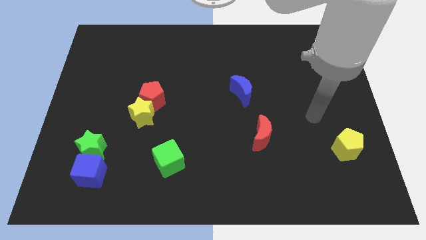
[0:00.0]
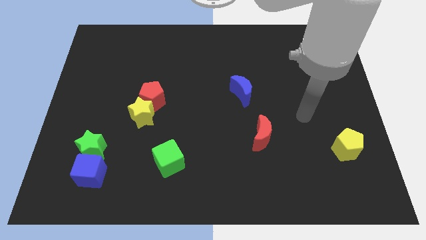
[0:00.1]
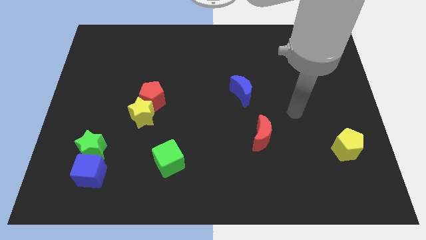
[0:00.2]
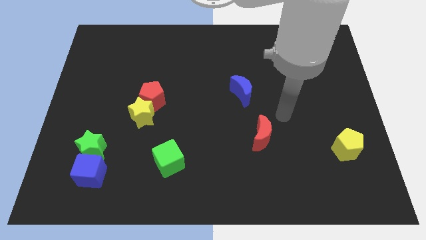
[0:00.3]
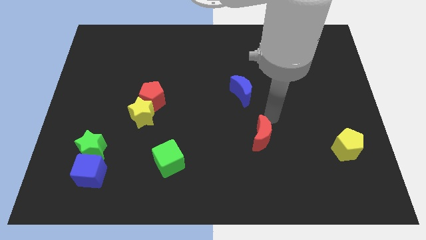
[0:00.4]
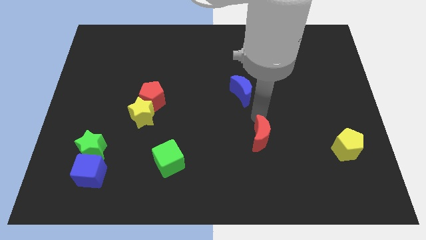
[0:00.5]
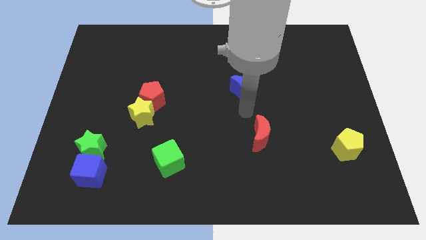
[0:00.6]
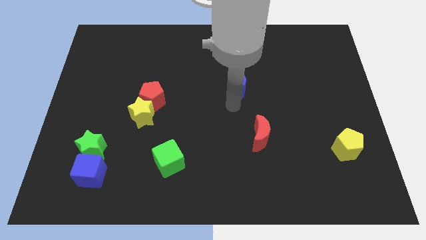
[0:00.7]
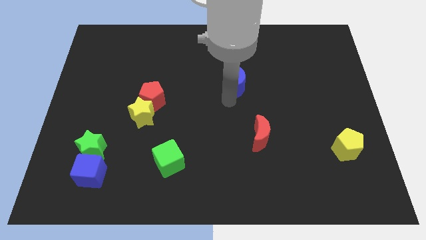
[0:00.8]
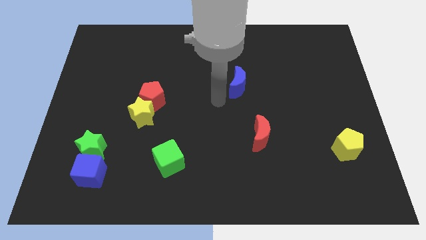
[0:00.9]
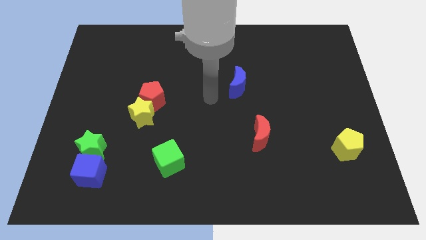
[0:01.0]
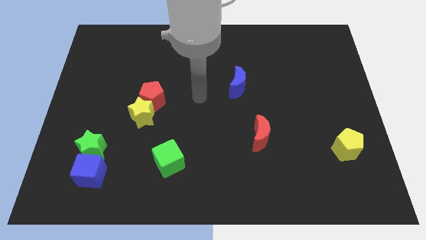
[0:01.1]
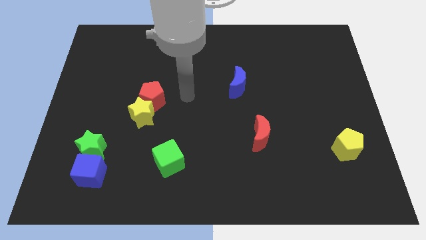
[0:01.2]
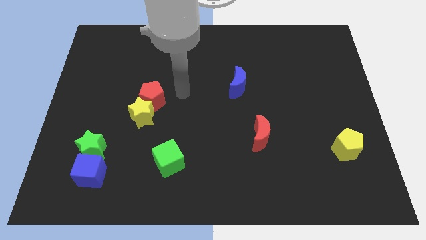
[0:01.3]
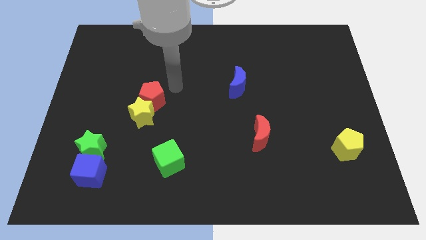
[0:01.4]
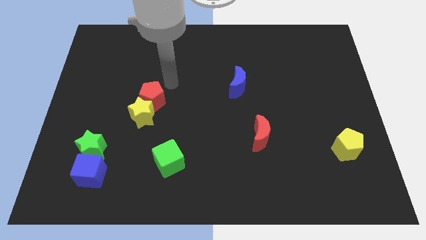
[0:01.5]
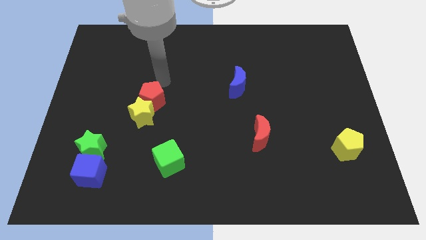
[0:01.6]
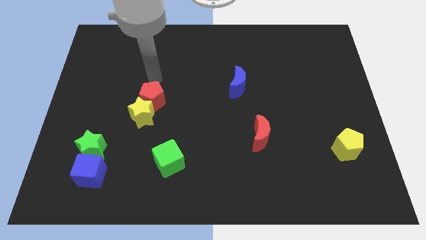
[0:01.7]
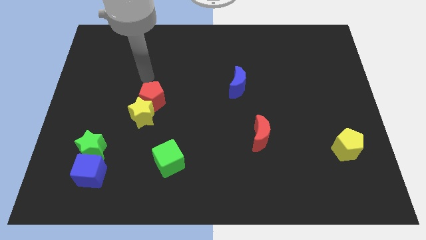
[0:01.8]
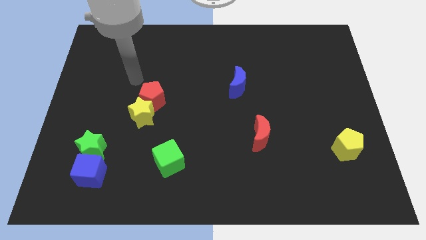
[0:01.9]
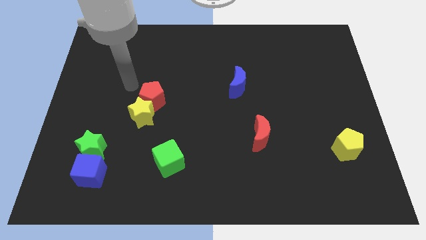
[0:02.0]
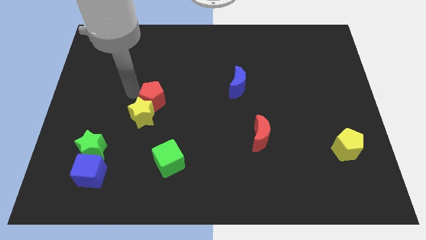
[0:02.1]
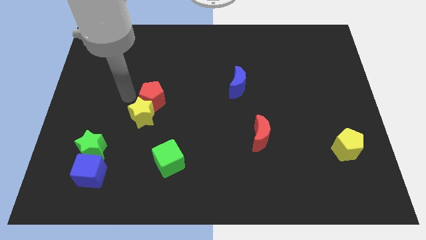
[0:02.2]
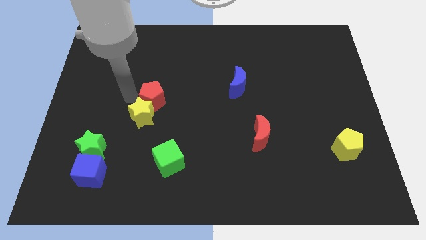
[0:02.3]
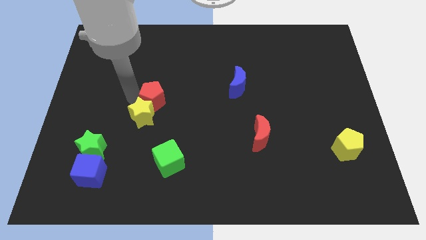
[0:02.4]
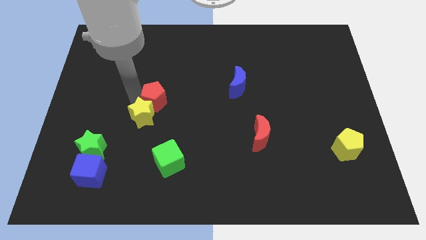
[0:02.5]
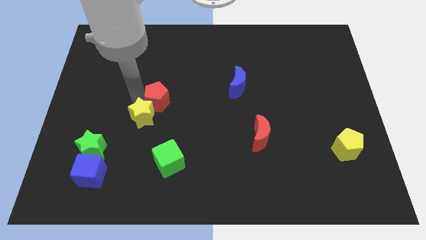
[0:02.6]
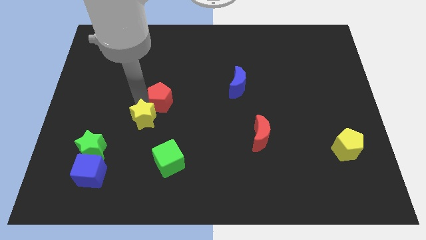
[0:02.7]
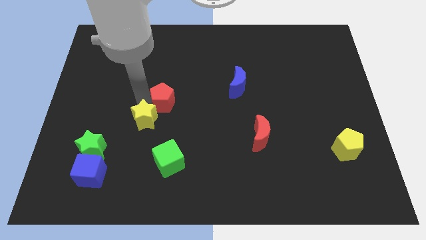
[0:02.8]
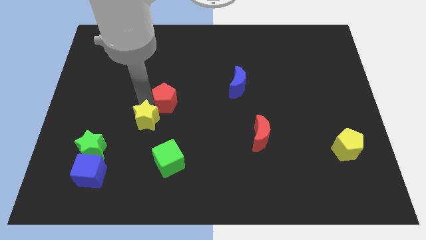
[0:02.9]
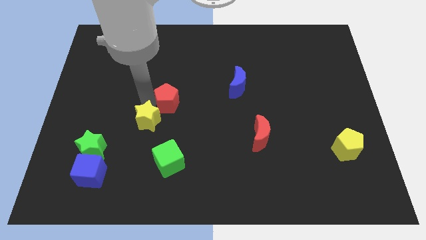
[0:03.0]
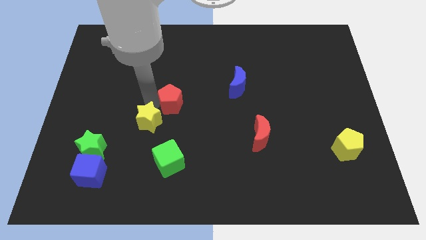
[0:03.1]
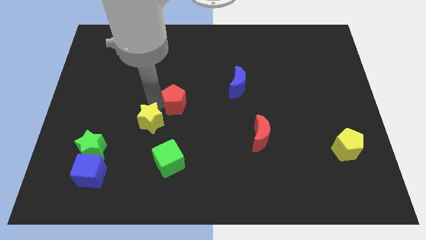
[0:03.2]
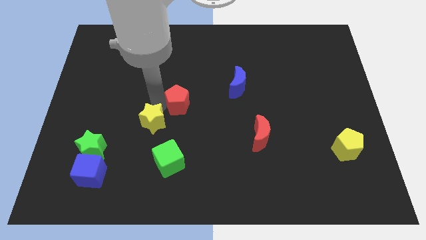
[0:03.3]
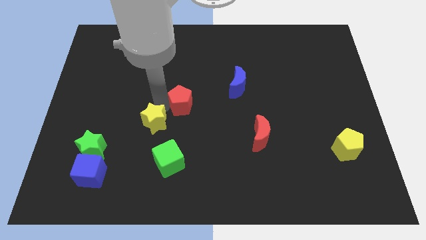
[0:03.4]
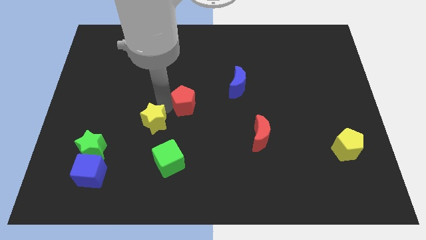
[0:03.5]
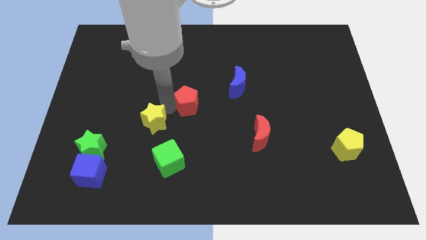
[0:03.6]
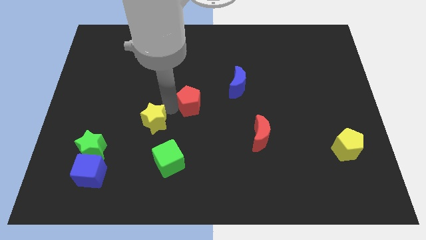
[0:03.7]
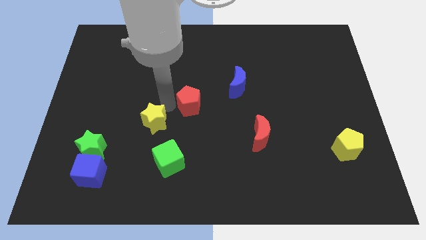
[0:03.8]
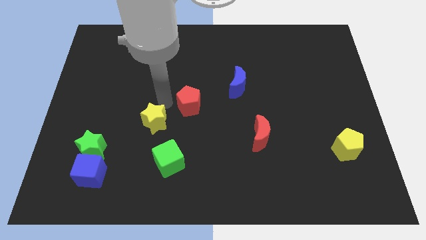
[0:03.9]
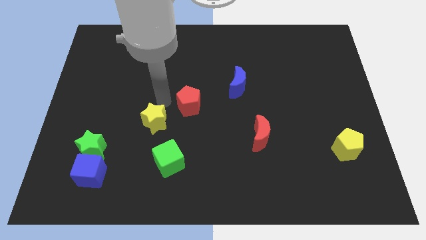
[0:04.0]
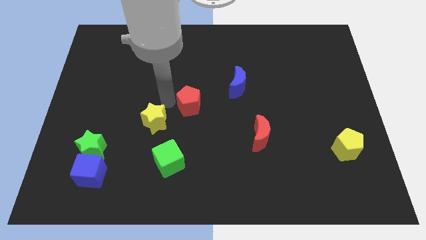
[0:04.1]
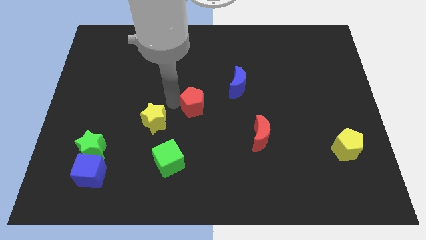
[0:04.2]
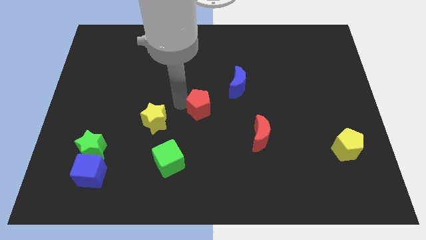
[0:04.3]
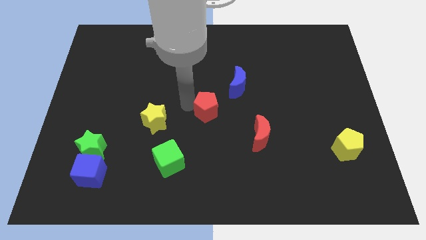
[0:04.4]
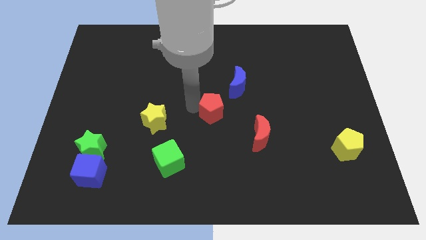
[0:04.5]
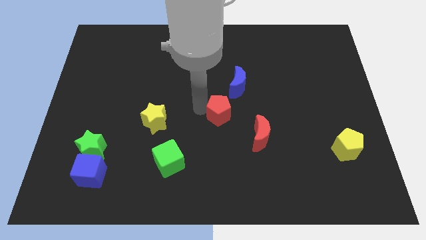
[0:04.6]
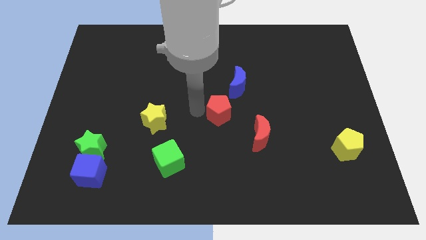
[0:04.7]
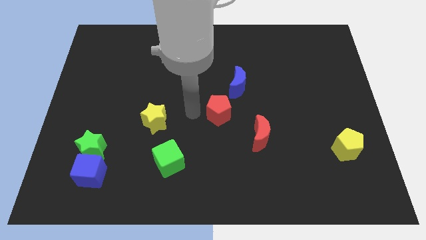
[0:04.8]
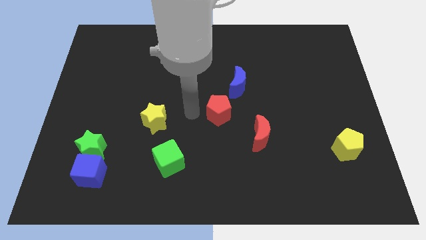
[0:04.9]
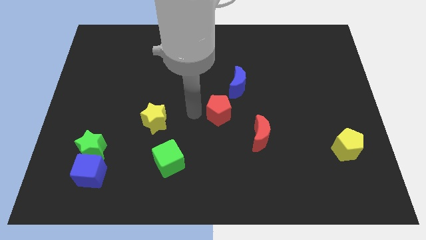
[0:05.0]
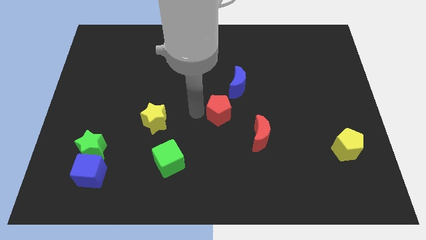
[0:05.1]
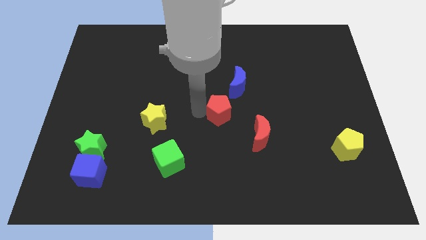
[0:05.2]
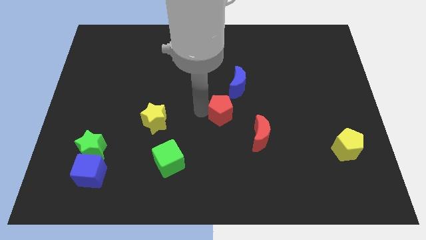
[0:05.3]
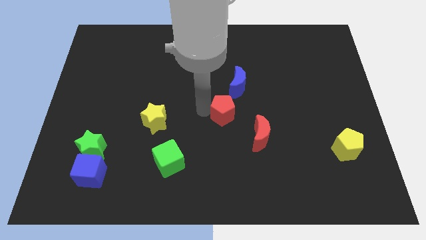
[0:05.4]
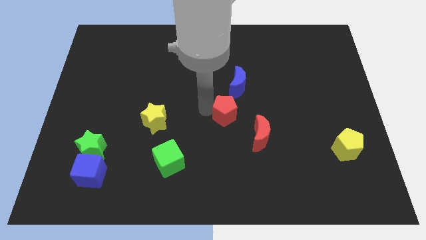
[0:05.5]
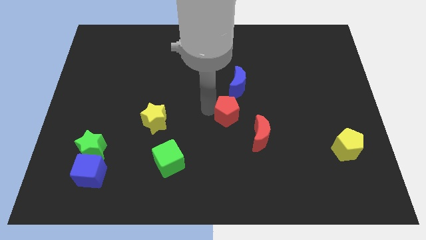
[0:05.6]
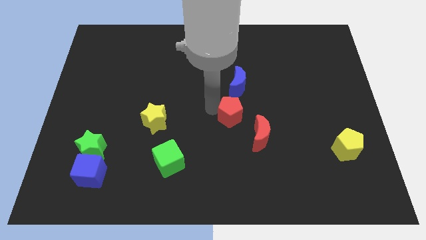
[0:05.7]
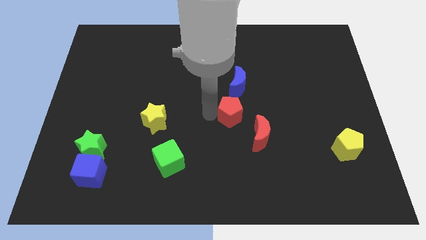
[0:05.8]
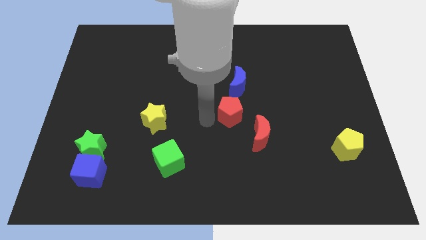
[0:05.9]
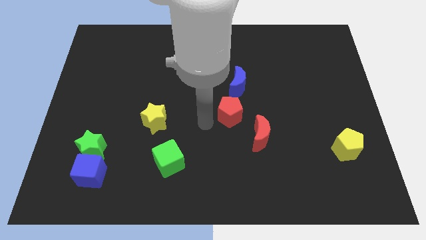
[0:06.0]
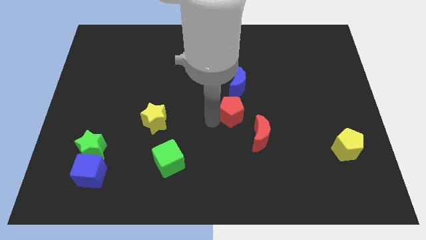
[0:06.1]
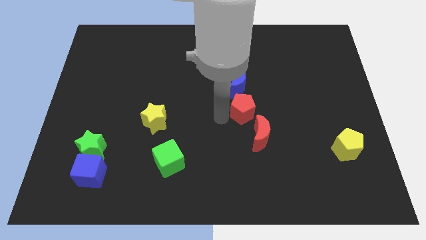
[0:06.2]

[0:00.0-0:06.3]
push the red pentagon to the bottom right side of the blue moon

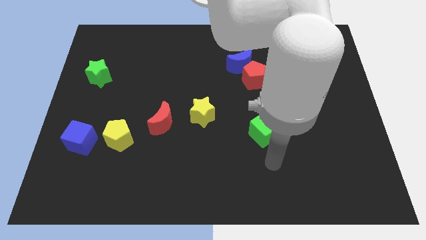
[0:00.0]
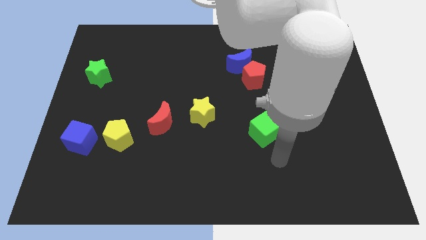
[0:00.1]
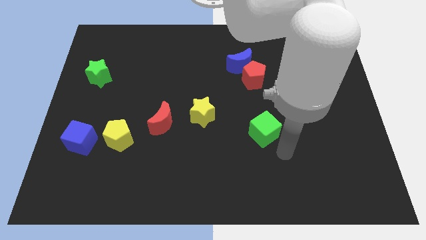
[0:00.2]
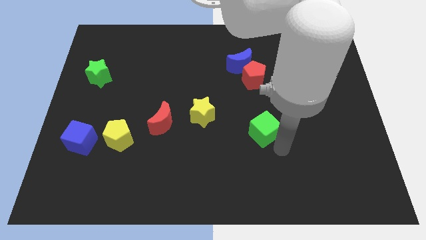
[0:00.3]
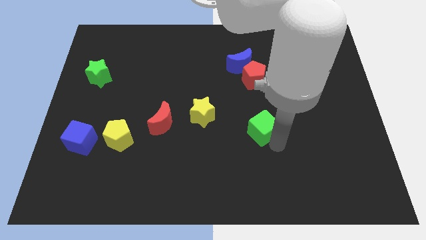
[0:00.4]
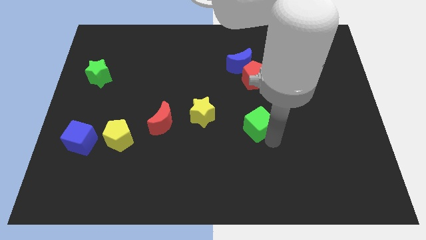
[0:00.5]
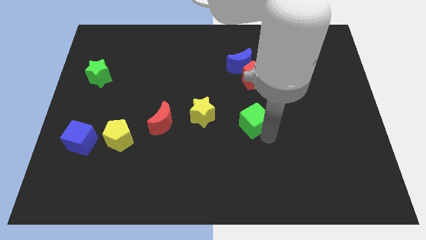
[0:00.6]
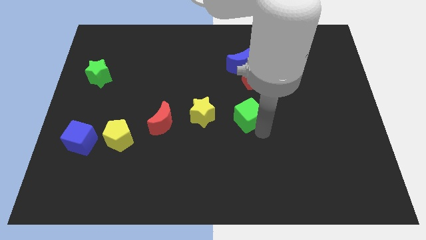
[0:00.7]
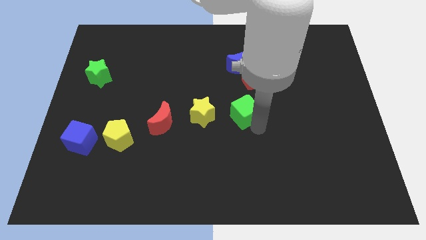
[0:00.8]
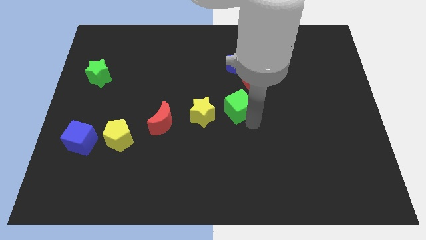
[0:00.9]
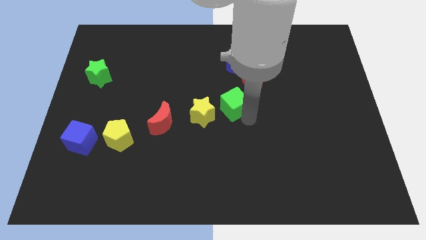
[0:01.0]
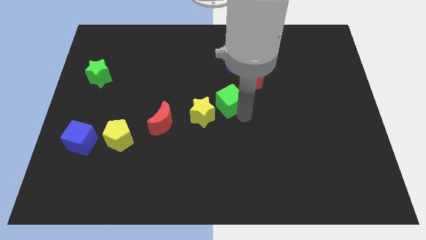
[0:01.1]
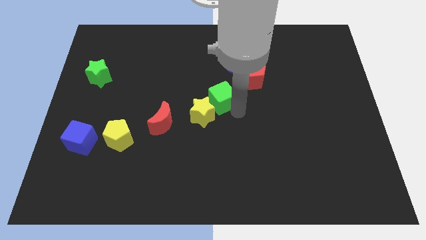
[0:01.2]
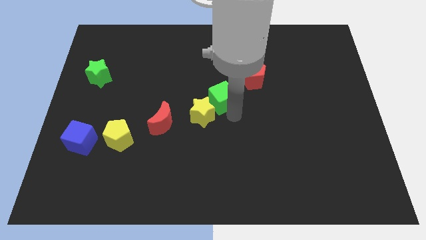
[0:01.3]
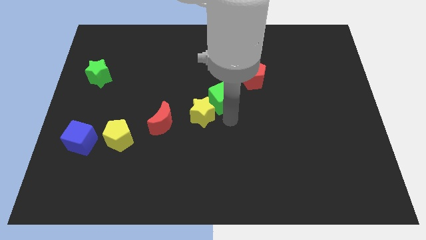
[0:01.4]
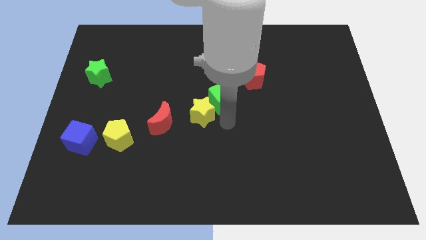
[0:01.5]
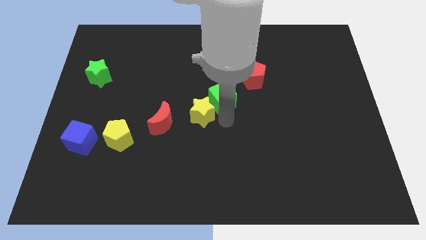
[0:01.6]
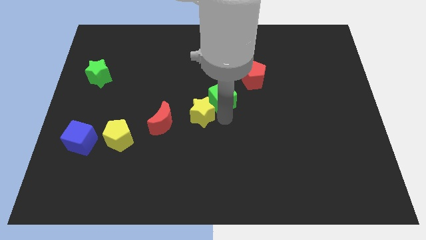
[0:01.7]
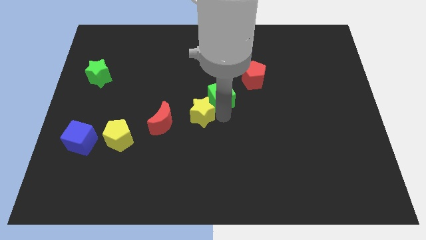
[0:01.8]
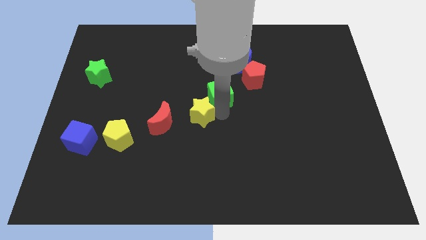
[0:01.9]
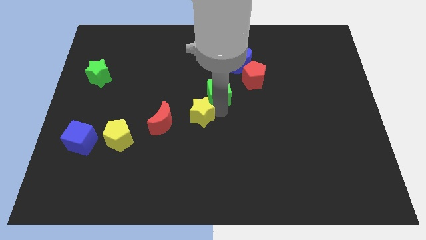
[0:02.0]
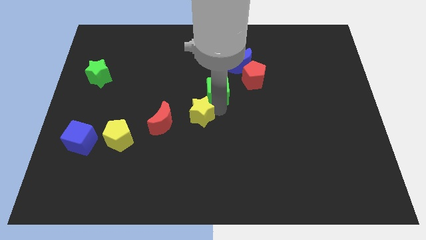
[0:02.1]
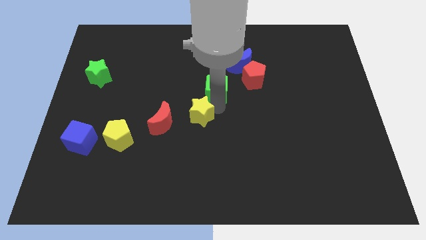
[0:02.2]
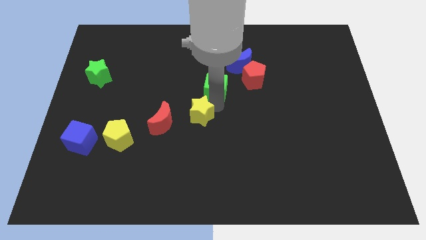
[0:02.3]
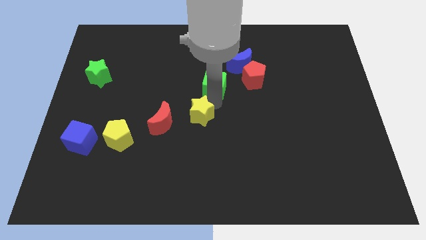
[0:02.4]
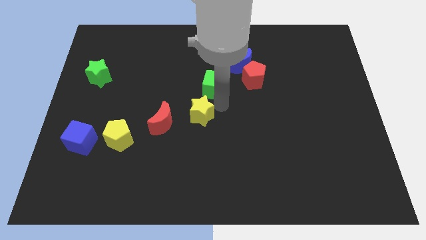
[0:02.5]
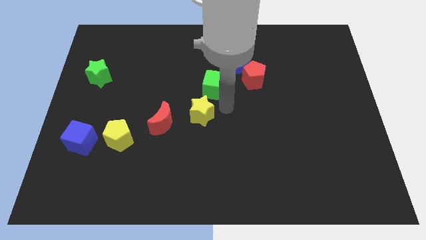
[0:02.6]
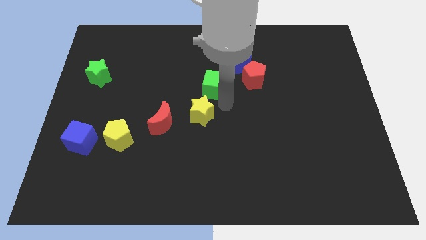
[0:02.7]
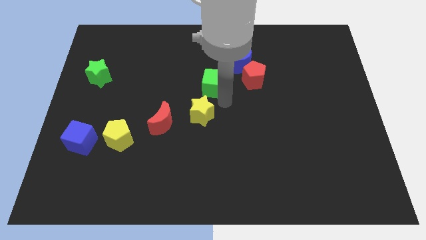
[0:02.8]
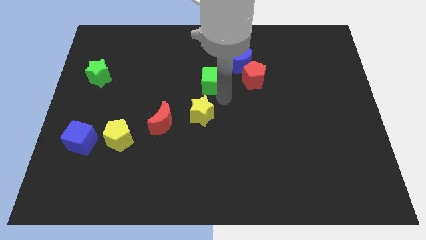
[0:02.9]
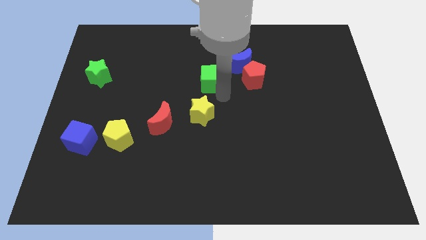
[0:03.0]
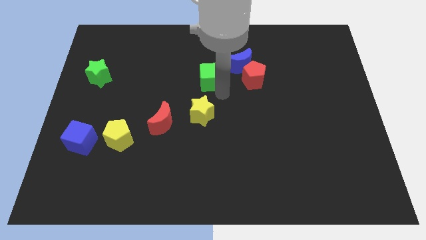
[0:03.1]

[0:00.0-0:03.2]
put the green cube just left of the blue moon
